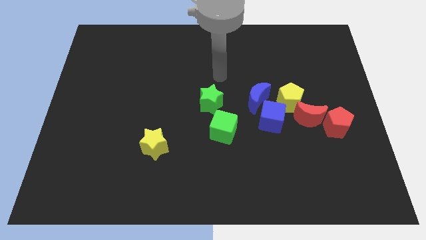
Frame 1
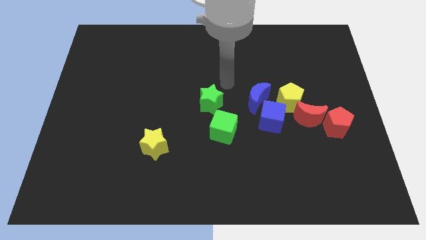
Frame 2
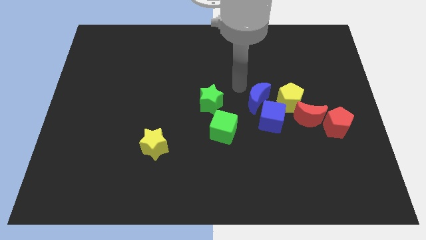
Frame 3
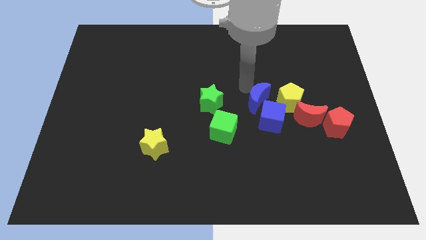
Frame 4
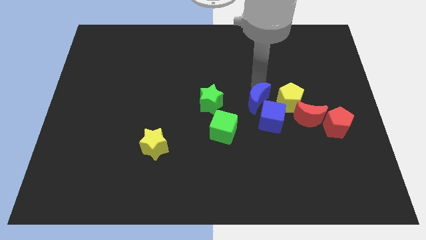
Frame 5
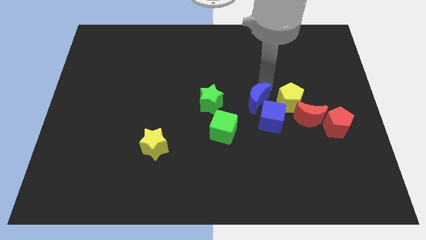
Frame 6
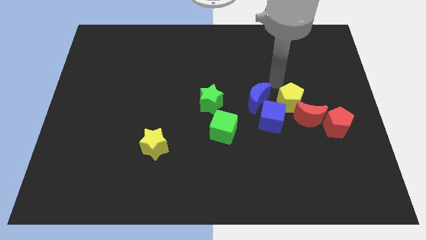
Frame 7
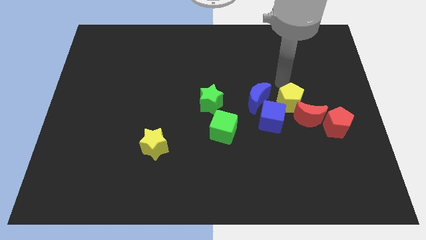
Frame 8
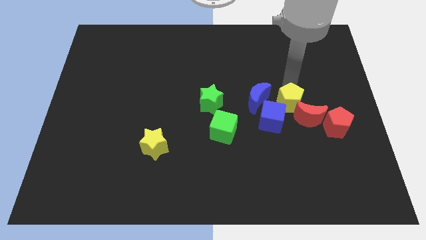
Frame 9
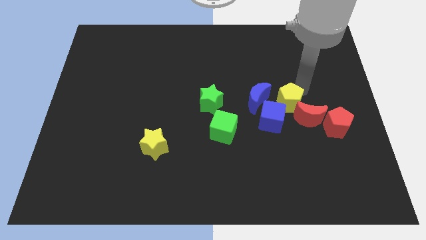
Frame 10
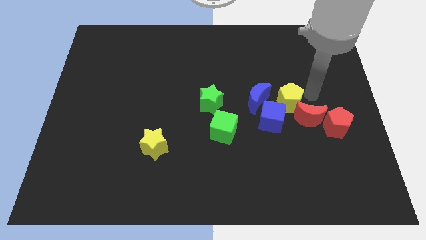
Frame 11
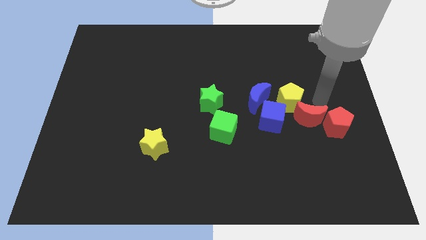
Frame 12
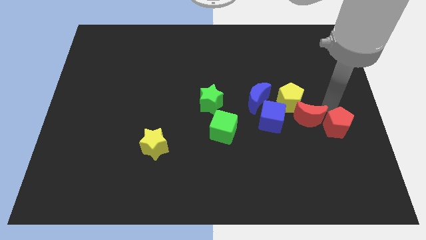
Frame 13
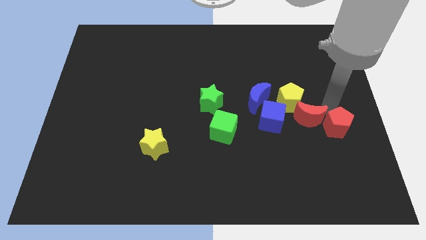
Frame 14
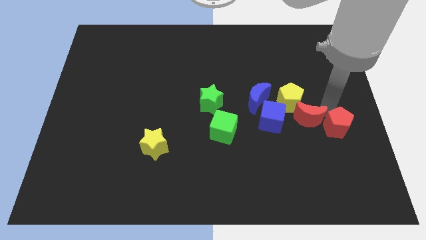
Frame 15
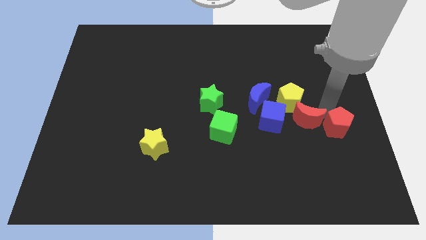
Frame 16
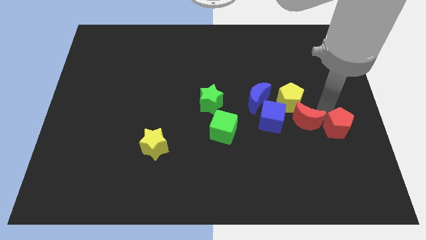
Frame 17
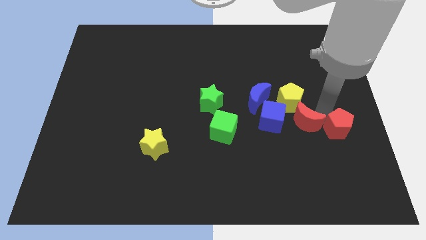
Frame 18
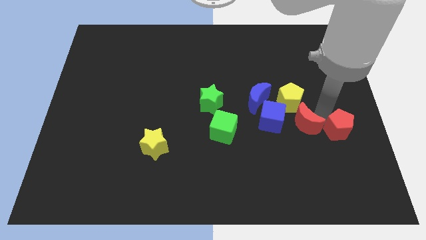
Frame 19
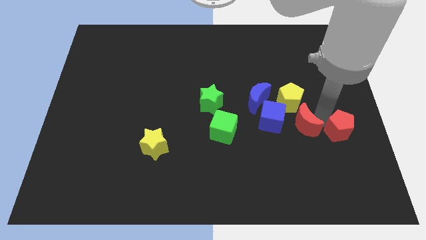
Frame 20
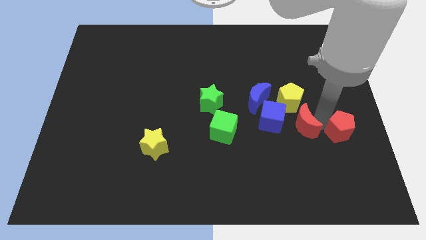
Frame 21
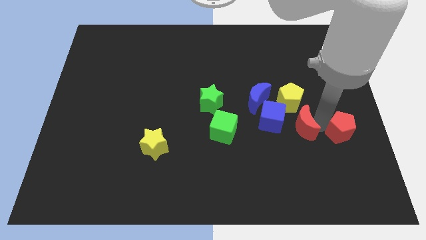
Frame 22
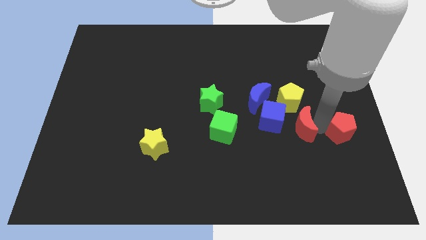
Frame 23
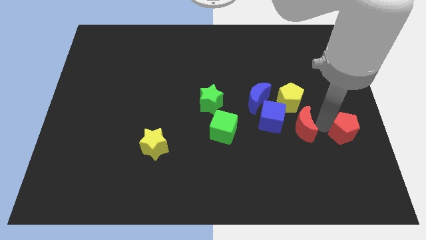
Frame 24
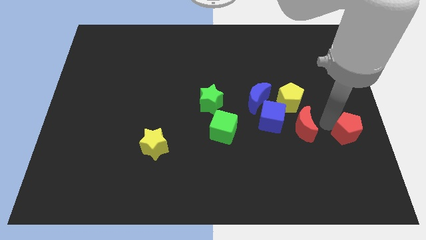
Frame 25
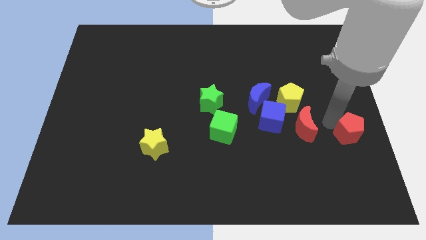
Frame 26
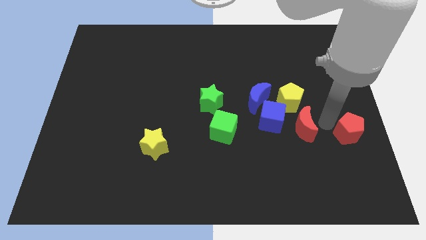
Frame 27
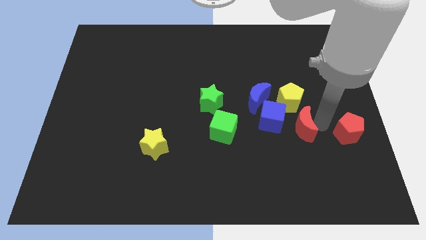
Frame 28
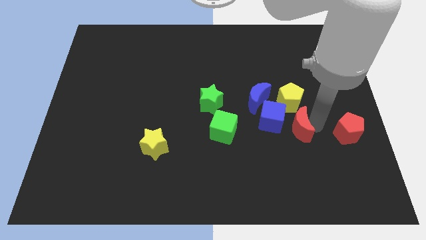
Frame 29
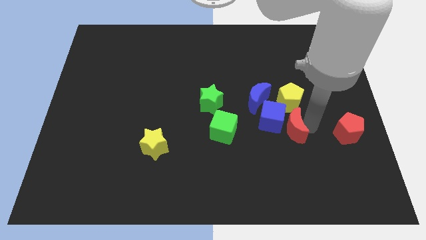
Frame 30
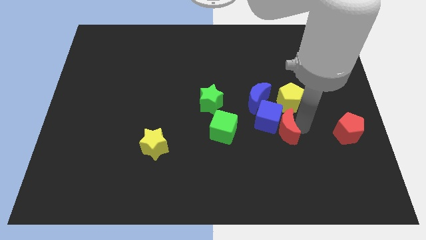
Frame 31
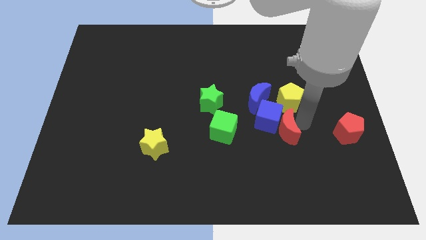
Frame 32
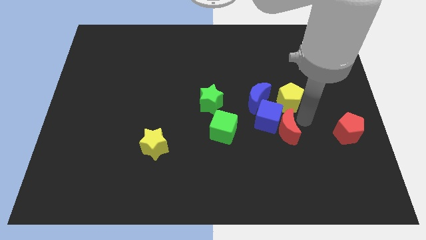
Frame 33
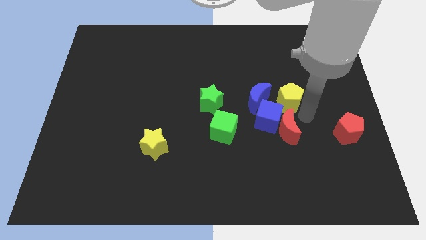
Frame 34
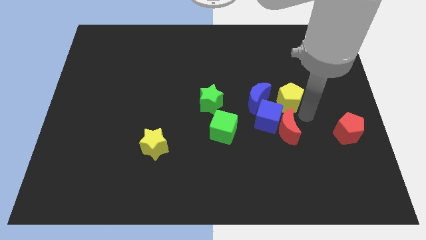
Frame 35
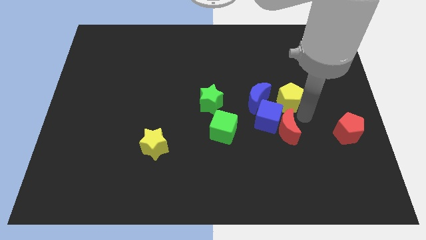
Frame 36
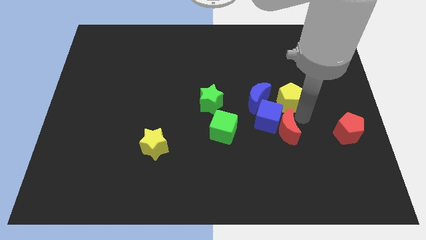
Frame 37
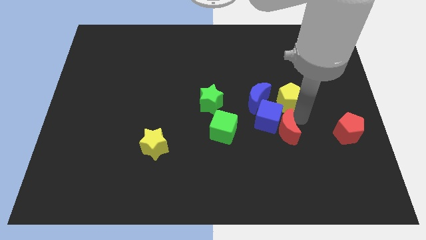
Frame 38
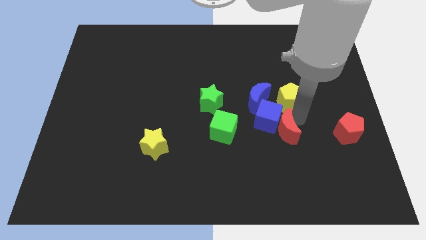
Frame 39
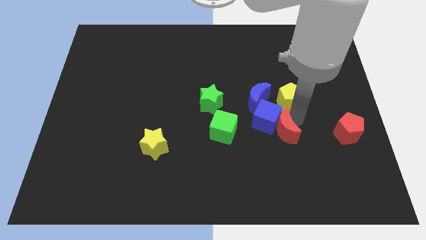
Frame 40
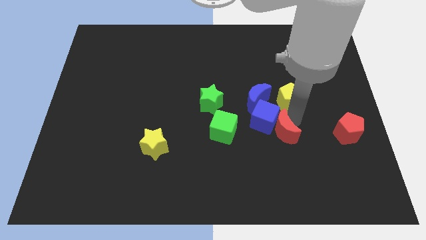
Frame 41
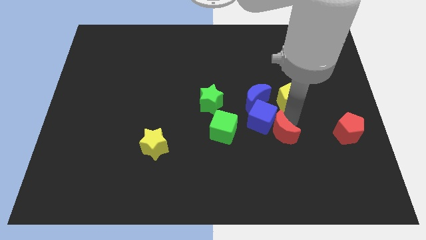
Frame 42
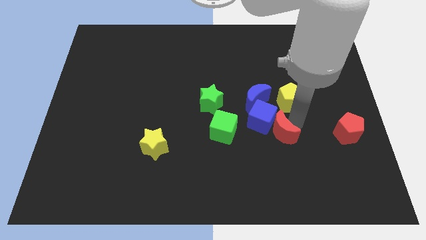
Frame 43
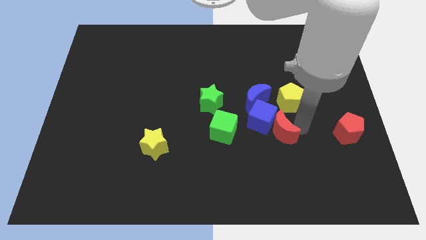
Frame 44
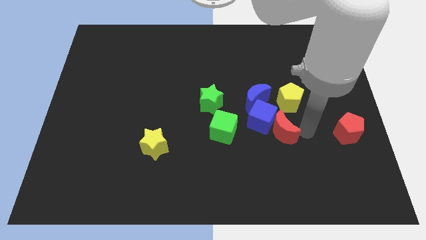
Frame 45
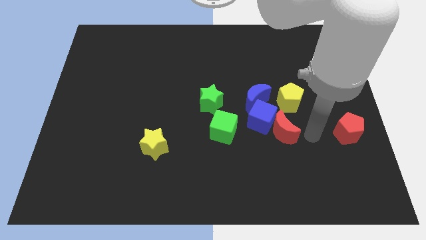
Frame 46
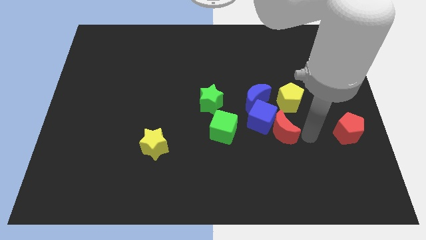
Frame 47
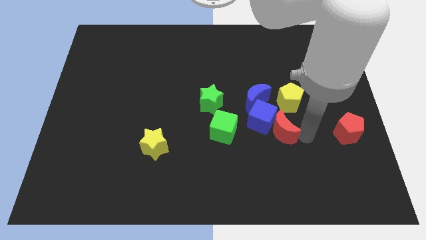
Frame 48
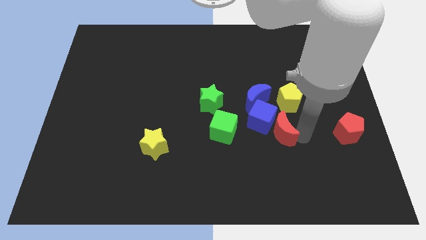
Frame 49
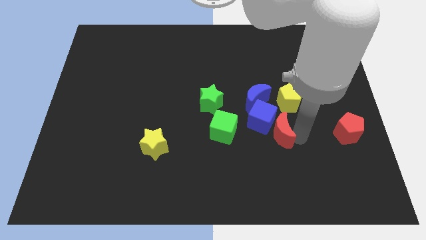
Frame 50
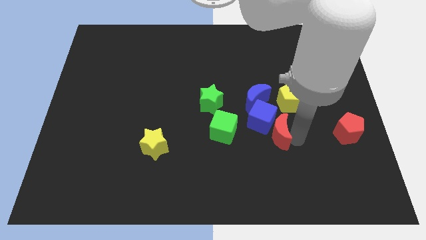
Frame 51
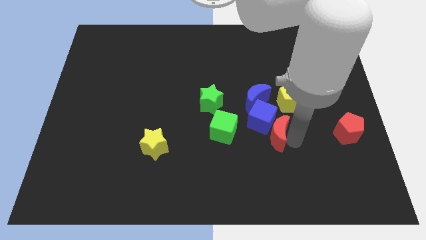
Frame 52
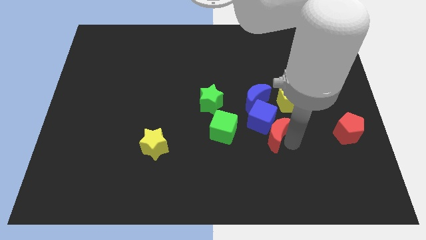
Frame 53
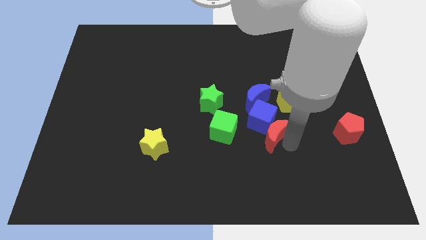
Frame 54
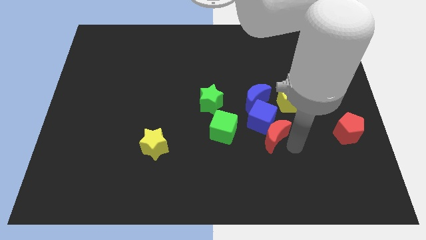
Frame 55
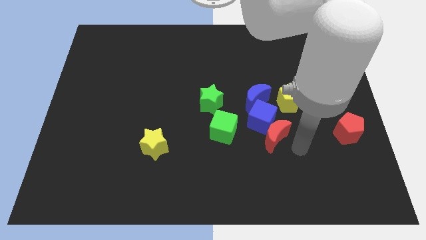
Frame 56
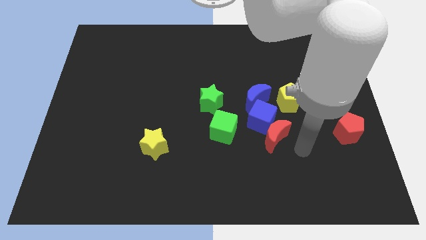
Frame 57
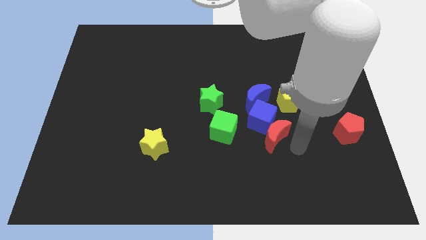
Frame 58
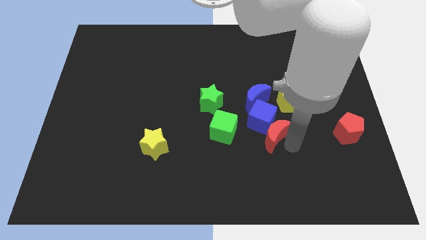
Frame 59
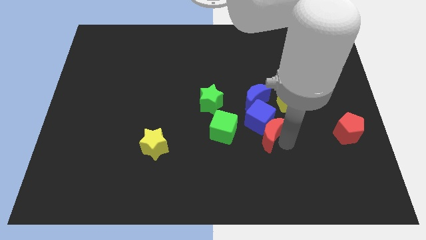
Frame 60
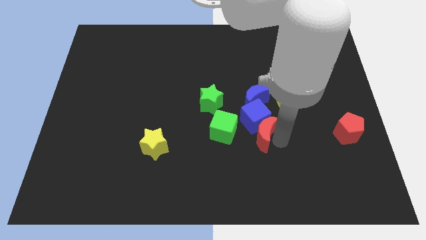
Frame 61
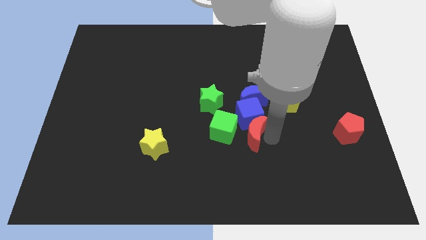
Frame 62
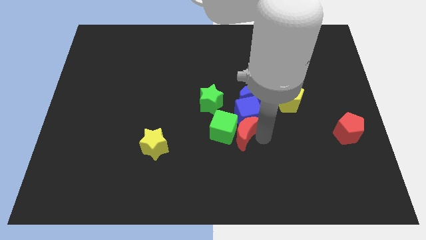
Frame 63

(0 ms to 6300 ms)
move the red moon to the green cube

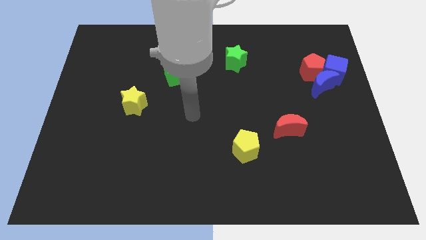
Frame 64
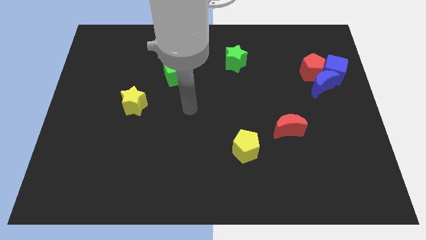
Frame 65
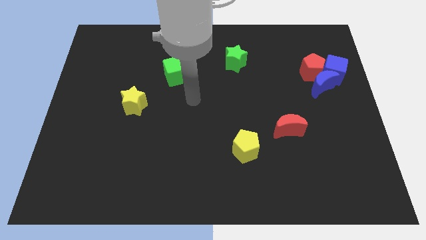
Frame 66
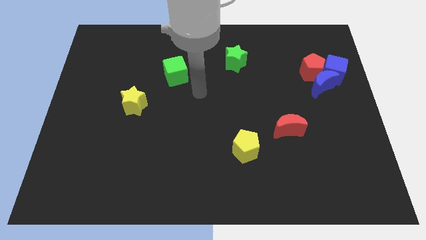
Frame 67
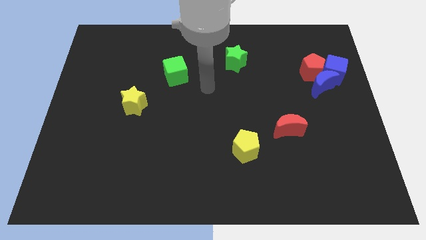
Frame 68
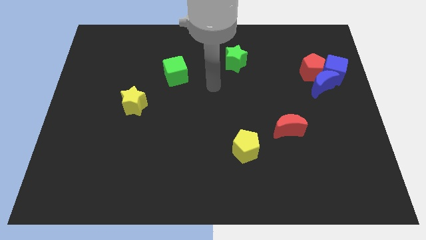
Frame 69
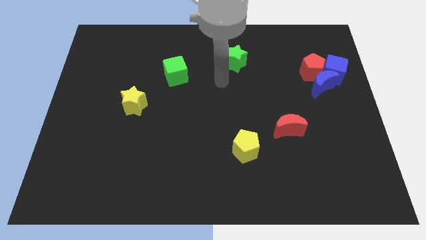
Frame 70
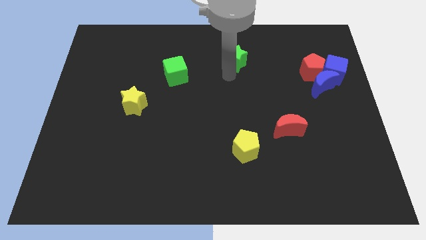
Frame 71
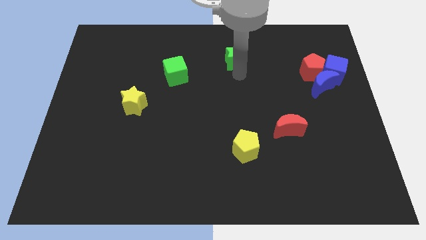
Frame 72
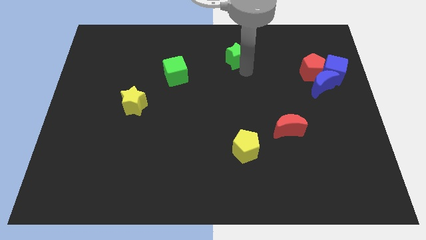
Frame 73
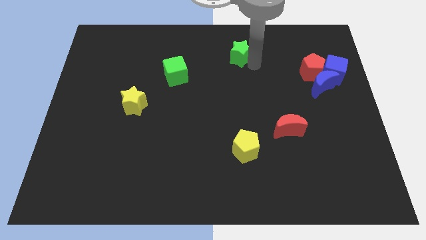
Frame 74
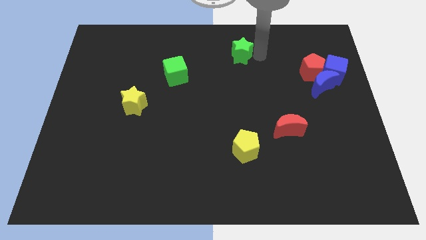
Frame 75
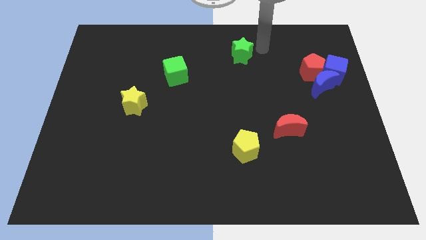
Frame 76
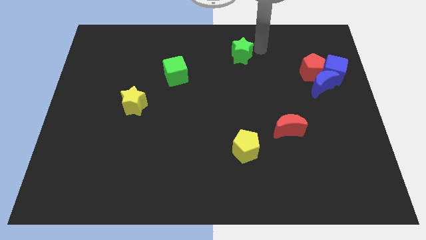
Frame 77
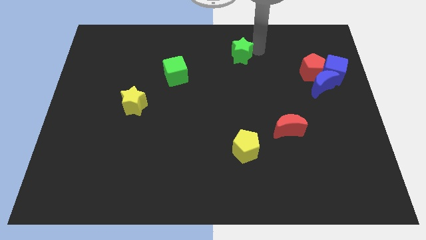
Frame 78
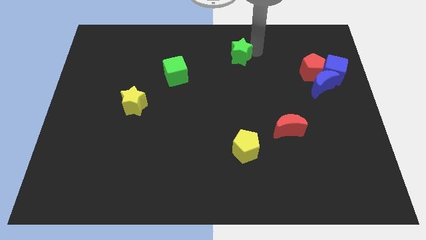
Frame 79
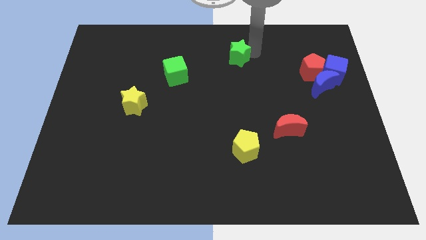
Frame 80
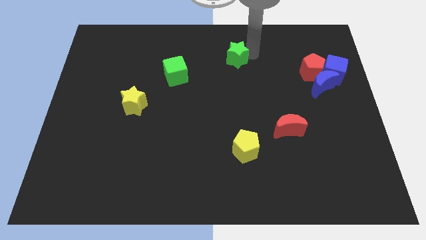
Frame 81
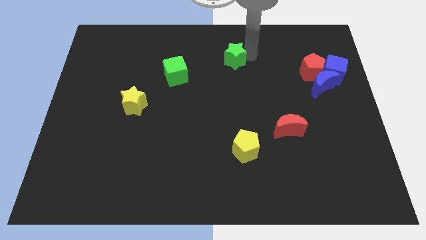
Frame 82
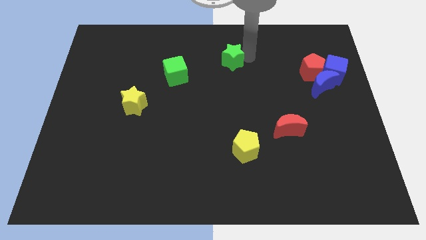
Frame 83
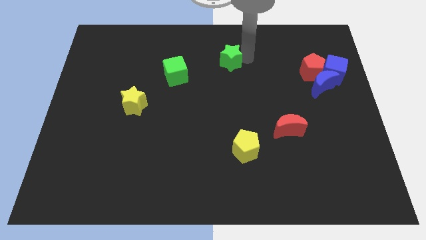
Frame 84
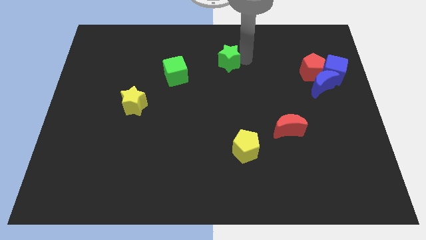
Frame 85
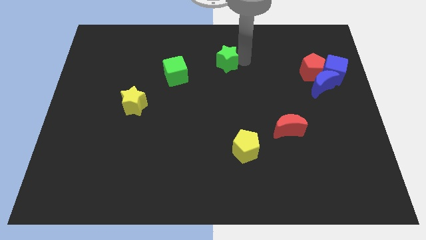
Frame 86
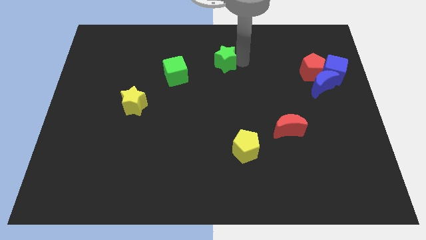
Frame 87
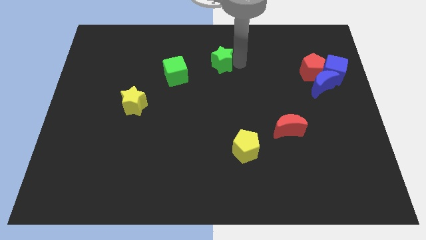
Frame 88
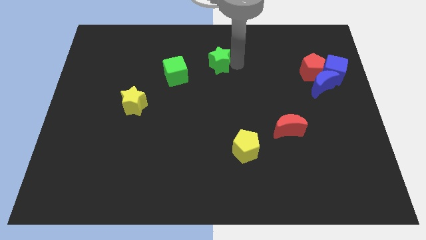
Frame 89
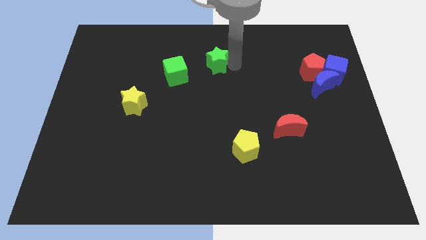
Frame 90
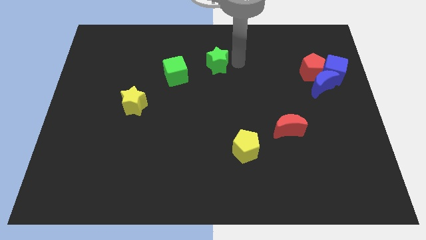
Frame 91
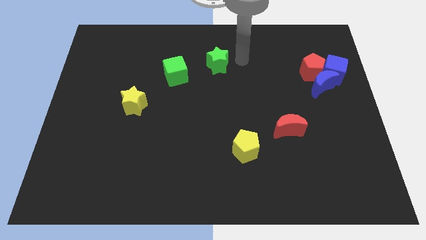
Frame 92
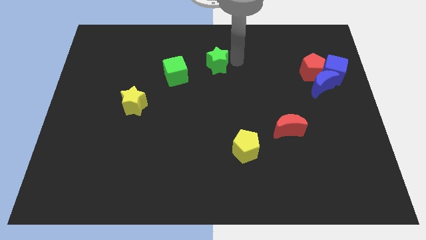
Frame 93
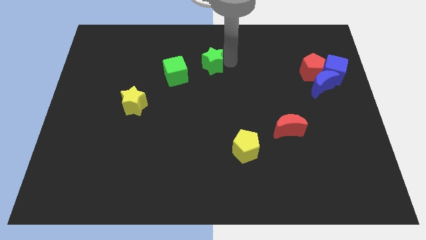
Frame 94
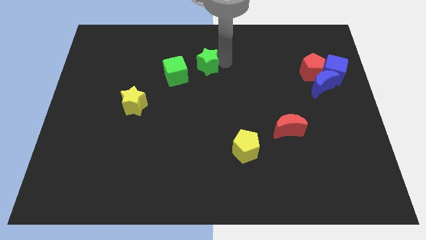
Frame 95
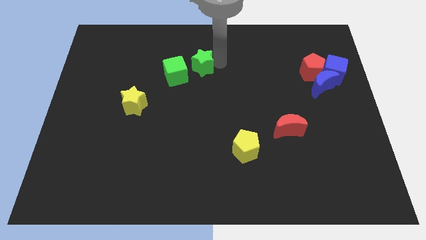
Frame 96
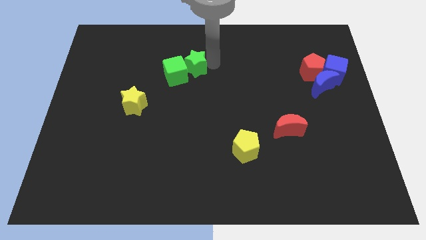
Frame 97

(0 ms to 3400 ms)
move the green star close to the green cube
